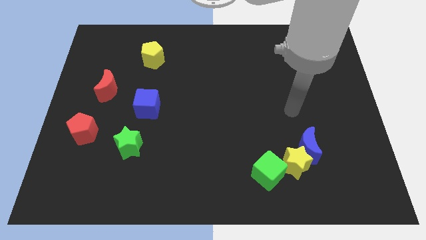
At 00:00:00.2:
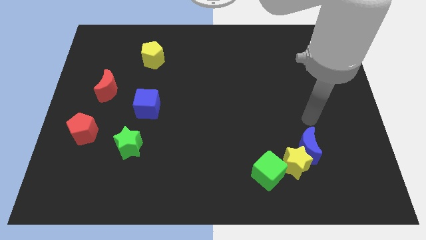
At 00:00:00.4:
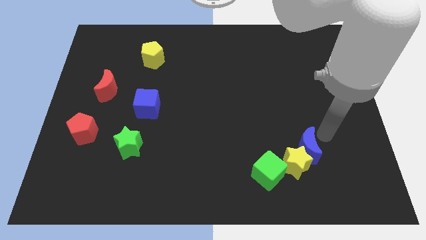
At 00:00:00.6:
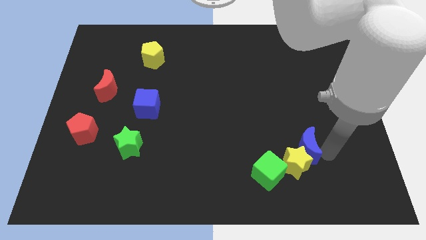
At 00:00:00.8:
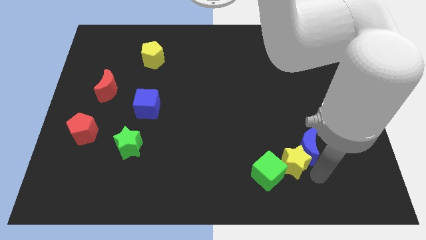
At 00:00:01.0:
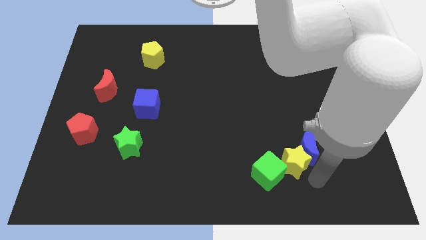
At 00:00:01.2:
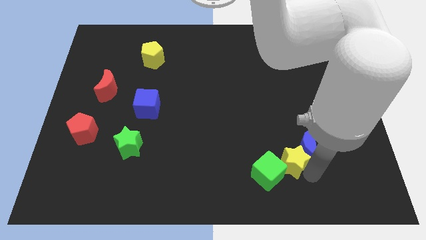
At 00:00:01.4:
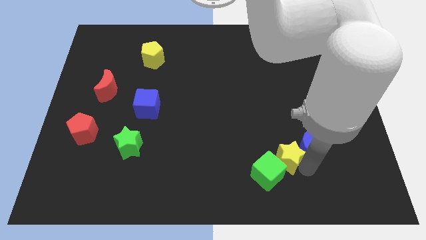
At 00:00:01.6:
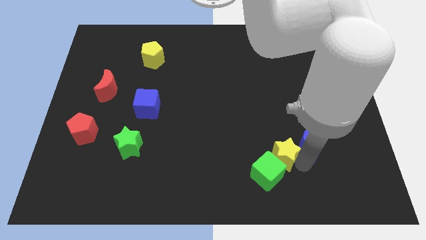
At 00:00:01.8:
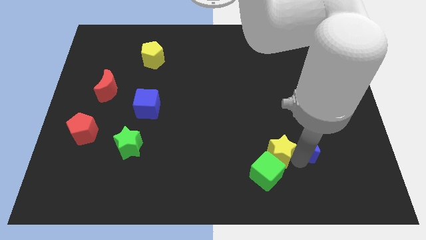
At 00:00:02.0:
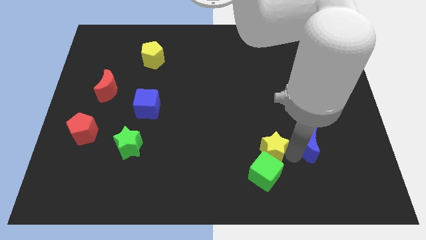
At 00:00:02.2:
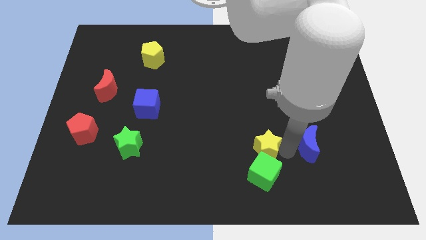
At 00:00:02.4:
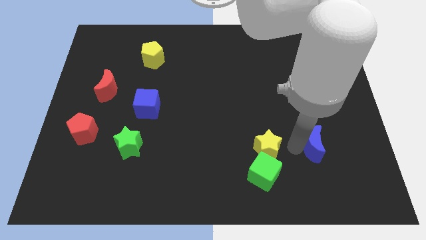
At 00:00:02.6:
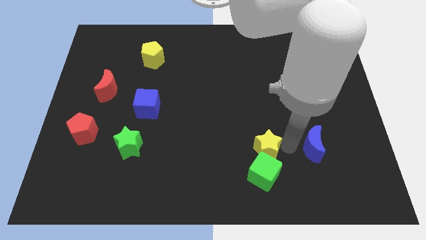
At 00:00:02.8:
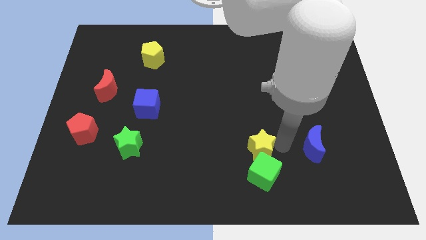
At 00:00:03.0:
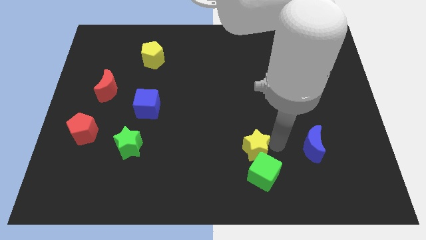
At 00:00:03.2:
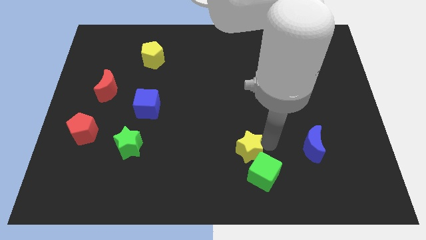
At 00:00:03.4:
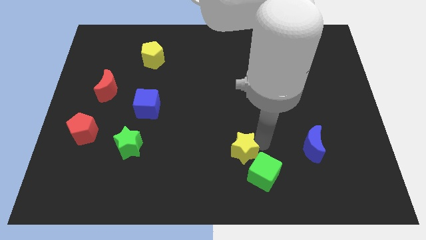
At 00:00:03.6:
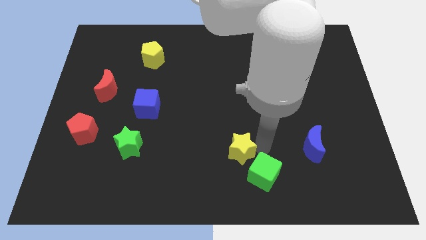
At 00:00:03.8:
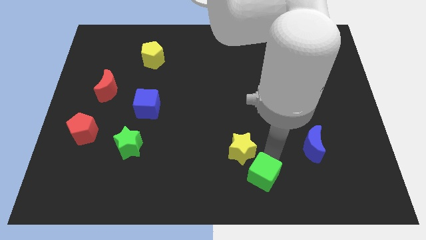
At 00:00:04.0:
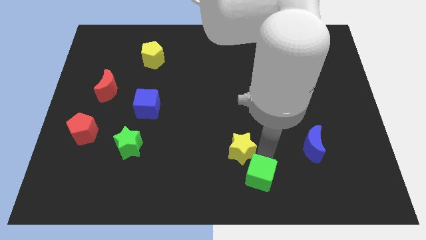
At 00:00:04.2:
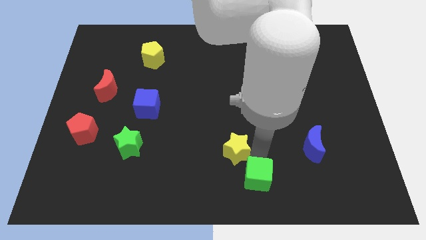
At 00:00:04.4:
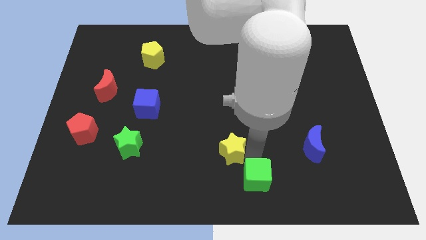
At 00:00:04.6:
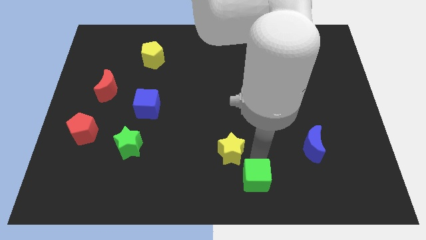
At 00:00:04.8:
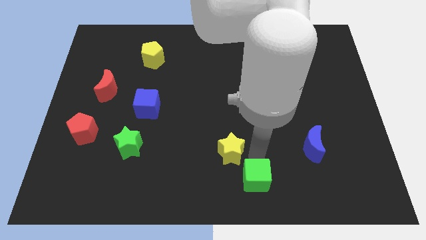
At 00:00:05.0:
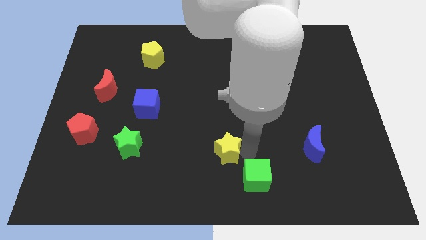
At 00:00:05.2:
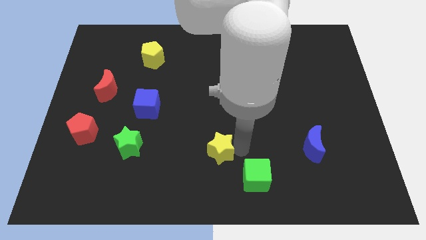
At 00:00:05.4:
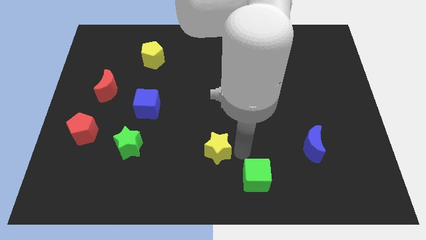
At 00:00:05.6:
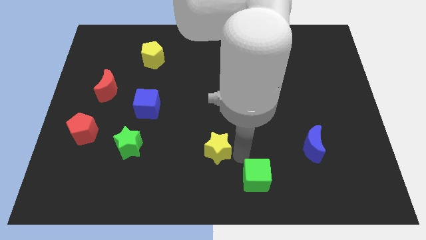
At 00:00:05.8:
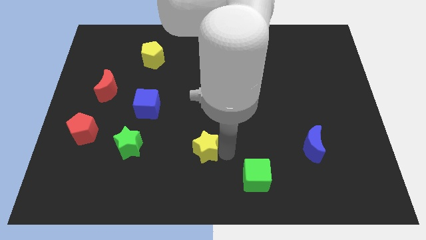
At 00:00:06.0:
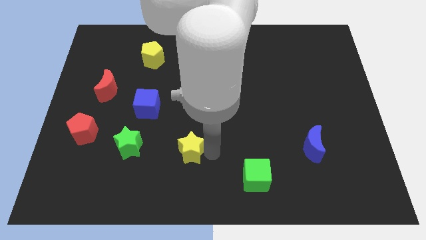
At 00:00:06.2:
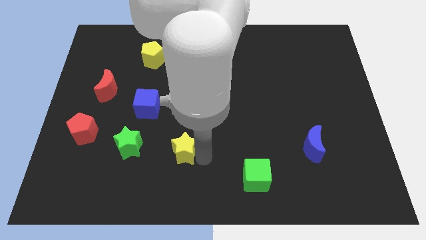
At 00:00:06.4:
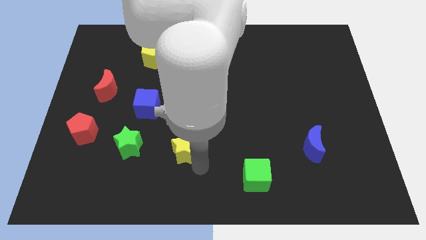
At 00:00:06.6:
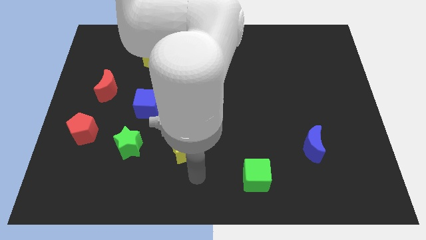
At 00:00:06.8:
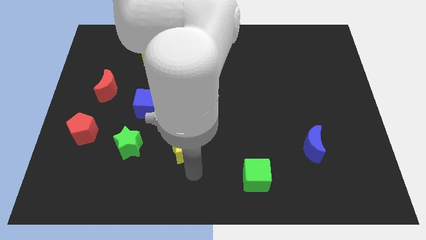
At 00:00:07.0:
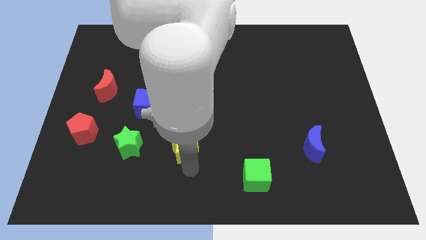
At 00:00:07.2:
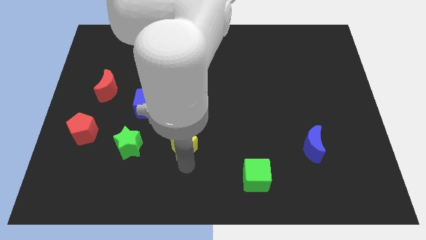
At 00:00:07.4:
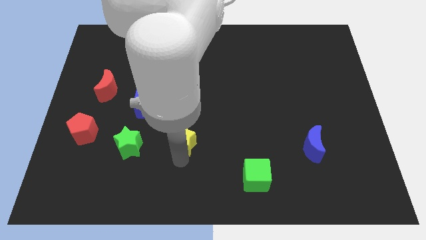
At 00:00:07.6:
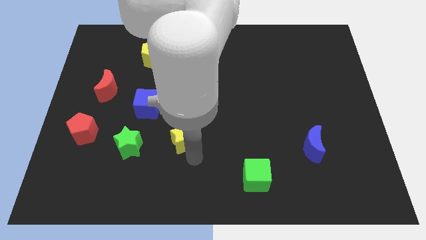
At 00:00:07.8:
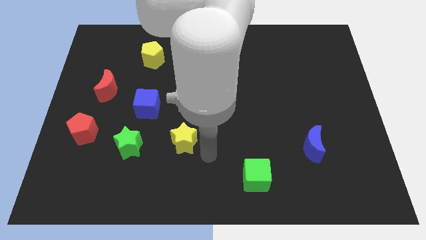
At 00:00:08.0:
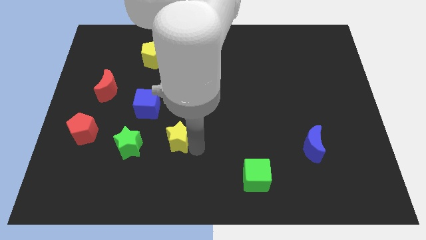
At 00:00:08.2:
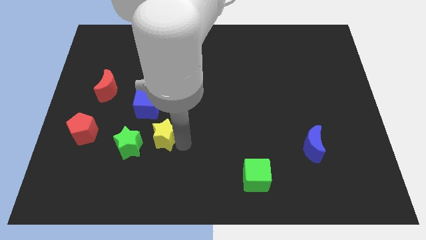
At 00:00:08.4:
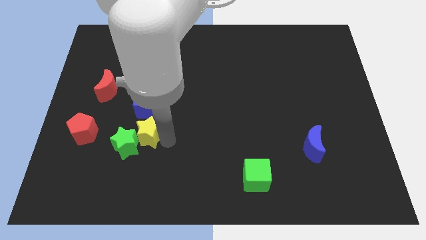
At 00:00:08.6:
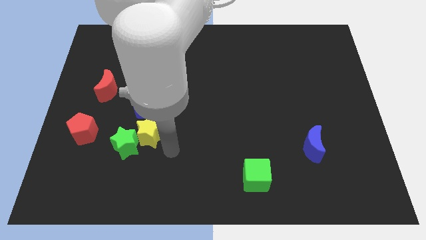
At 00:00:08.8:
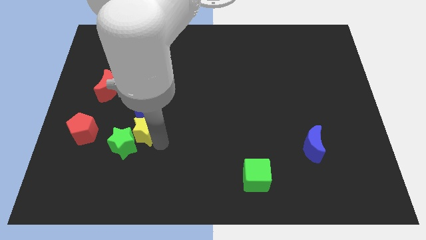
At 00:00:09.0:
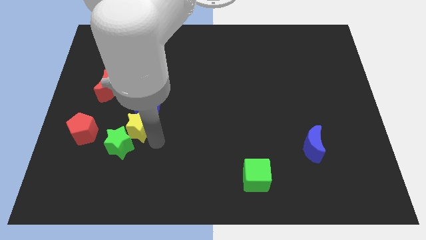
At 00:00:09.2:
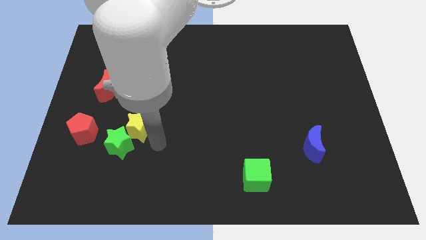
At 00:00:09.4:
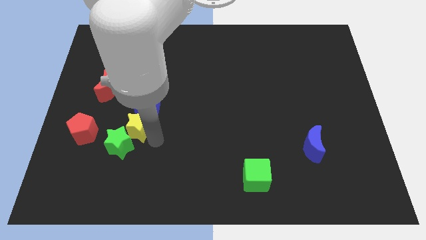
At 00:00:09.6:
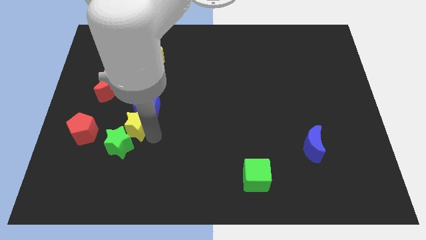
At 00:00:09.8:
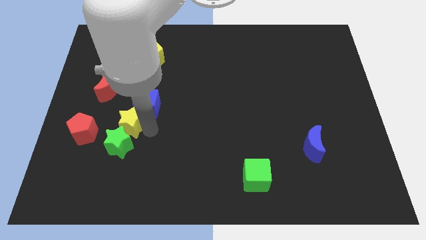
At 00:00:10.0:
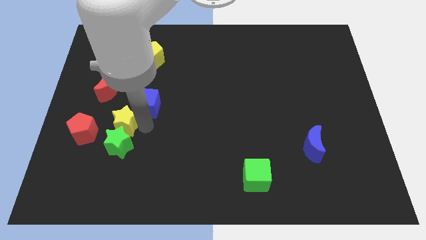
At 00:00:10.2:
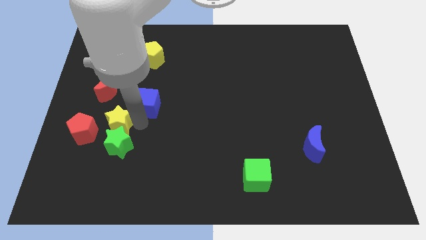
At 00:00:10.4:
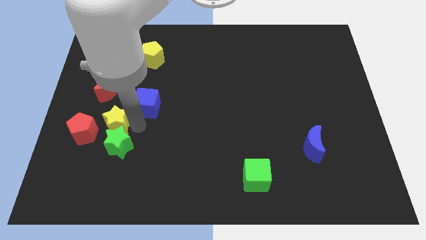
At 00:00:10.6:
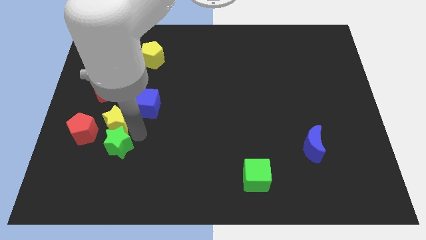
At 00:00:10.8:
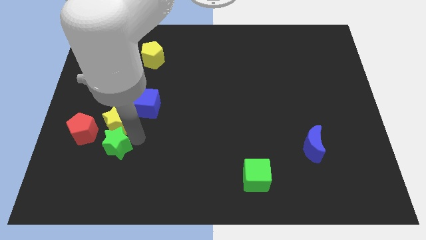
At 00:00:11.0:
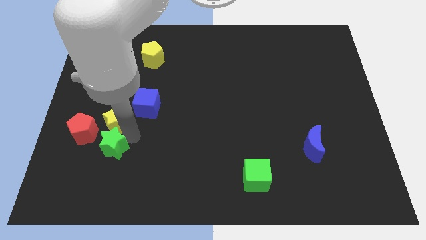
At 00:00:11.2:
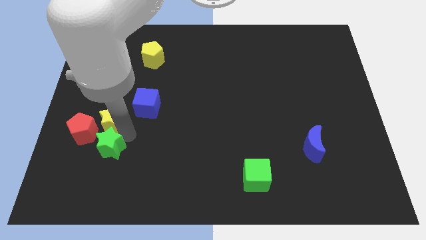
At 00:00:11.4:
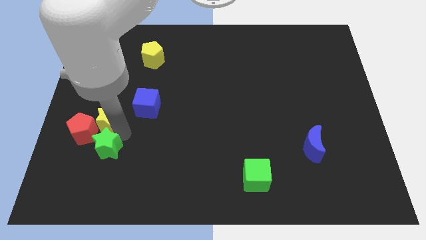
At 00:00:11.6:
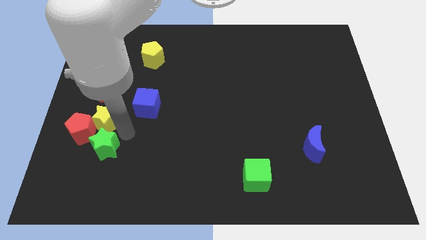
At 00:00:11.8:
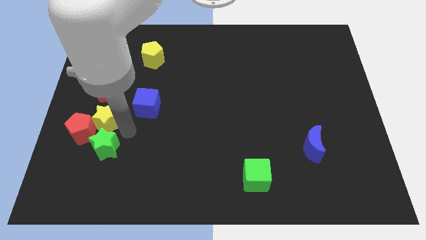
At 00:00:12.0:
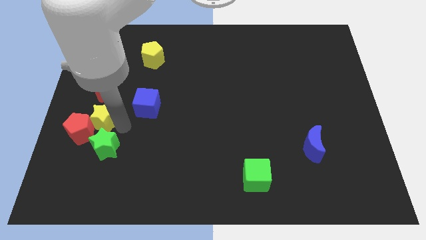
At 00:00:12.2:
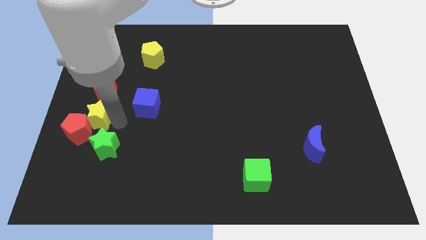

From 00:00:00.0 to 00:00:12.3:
slide the yellow star to the center left
